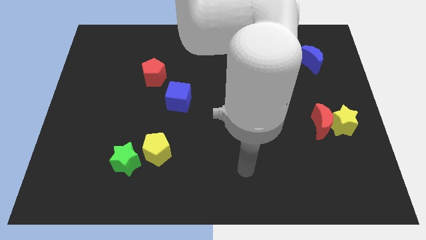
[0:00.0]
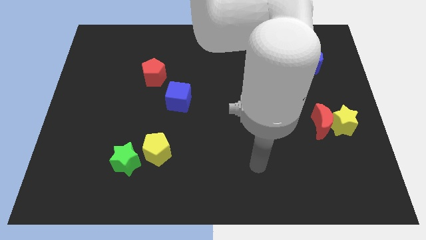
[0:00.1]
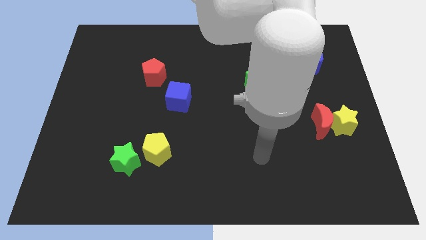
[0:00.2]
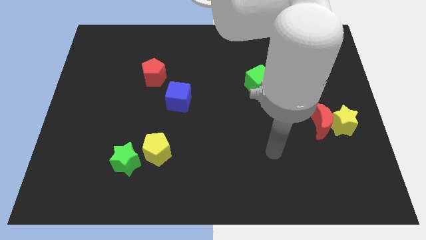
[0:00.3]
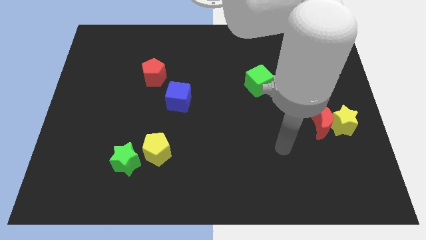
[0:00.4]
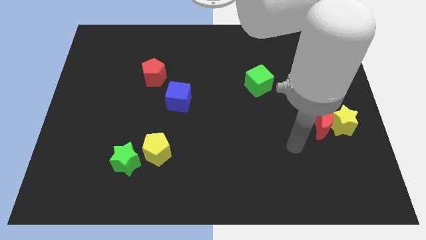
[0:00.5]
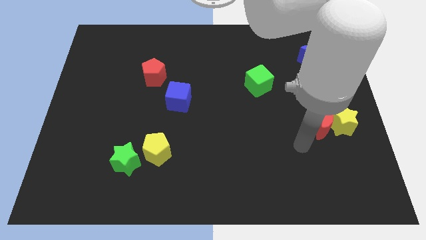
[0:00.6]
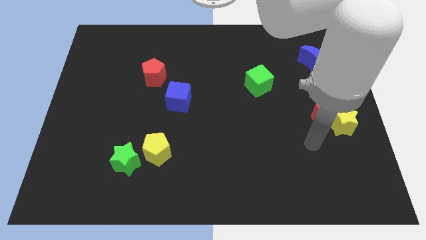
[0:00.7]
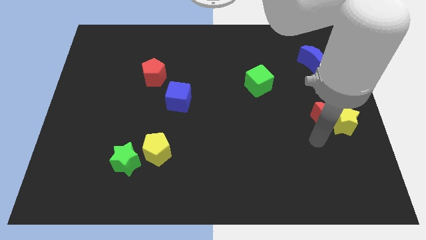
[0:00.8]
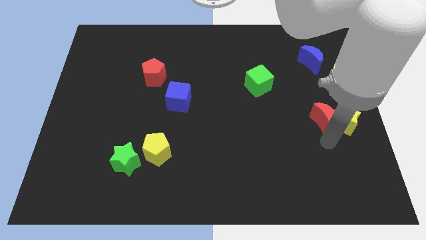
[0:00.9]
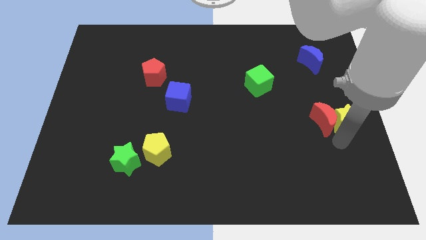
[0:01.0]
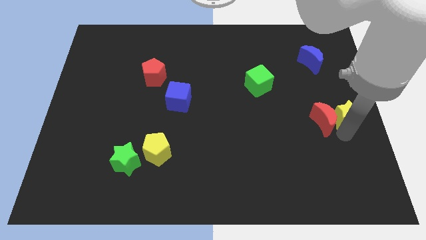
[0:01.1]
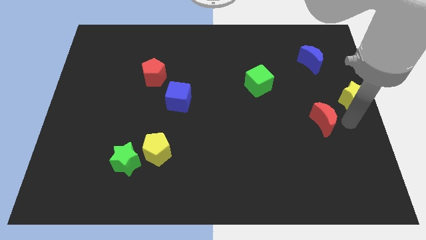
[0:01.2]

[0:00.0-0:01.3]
move the red moon away from the yellow star

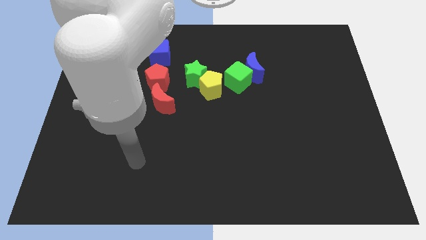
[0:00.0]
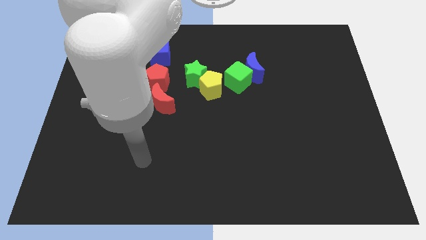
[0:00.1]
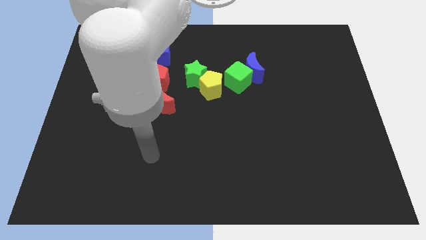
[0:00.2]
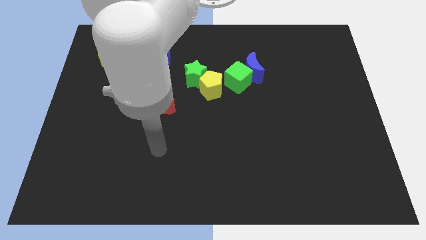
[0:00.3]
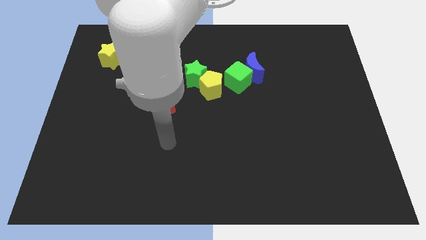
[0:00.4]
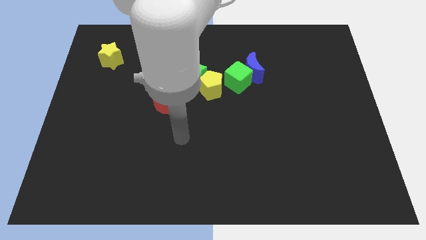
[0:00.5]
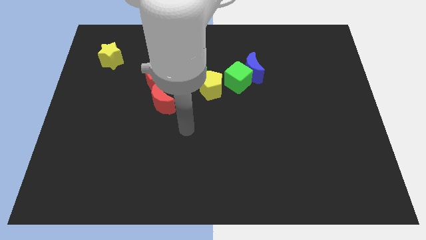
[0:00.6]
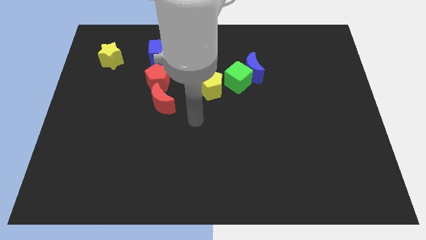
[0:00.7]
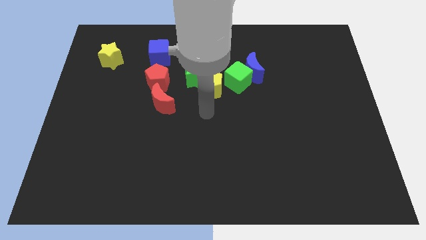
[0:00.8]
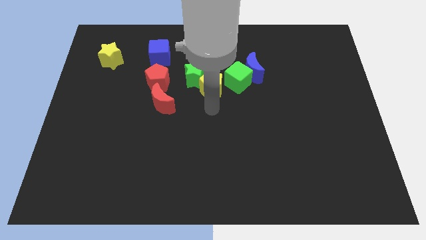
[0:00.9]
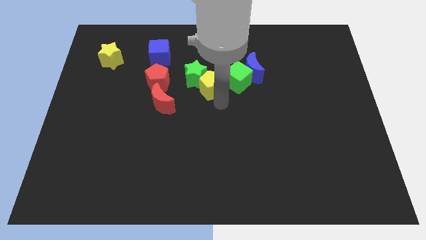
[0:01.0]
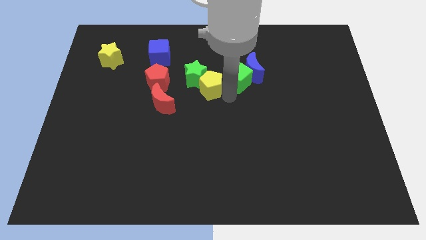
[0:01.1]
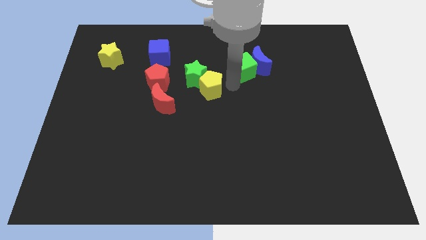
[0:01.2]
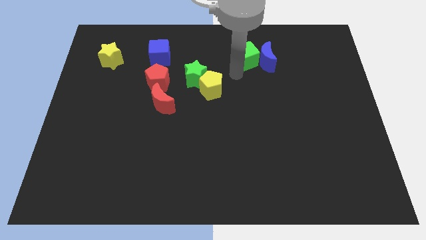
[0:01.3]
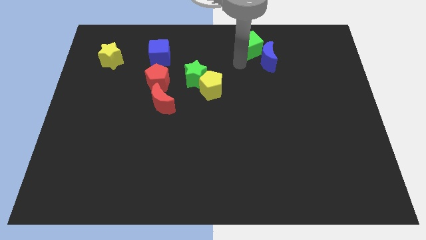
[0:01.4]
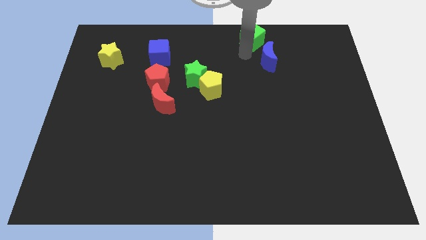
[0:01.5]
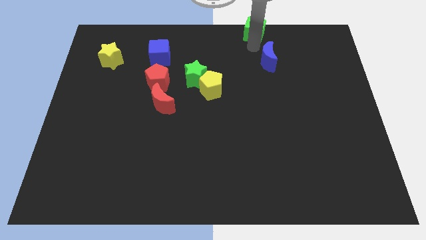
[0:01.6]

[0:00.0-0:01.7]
move the blue moon away from the green cube

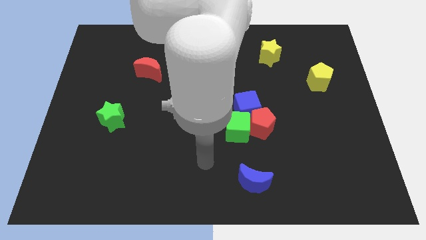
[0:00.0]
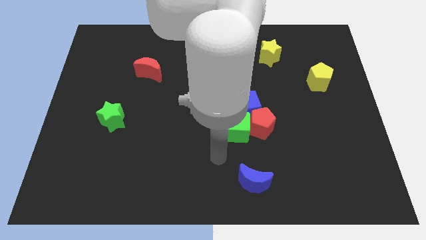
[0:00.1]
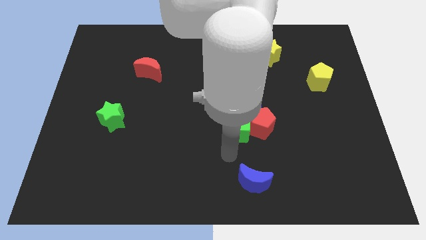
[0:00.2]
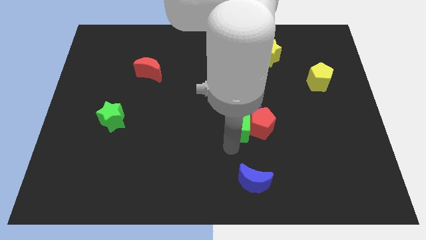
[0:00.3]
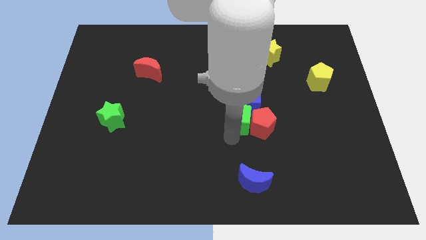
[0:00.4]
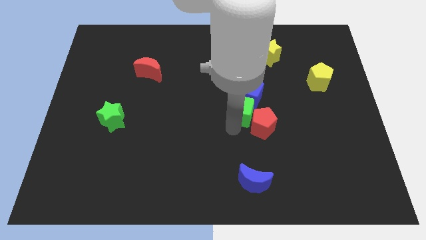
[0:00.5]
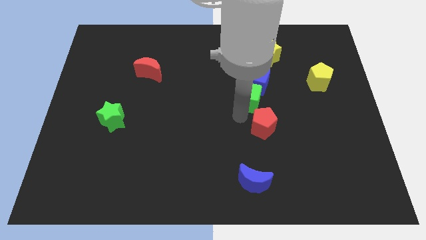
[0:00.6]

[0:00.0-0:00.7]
pull the red pentagon apart from the green cube and blue cube

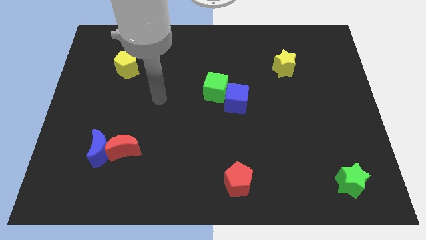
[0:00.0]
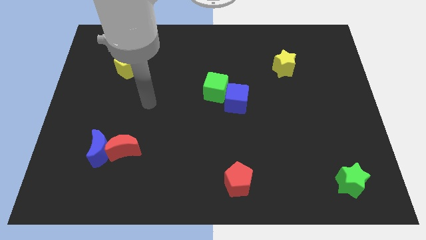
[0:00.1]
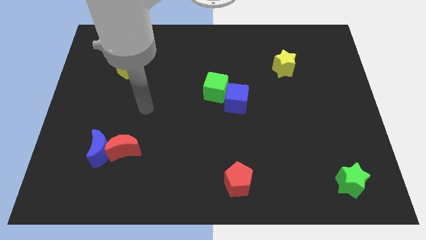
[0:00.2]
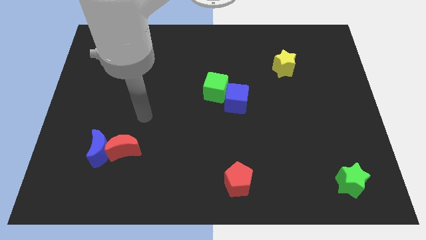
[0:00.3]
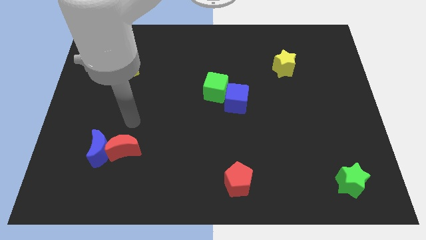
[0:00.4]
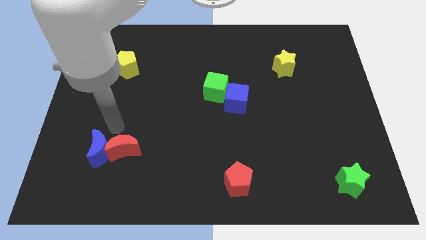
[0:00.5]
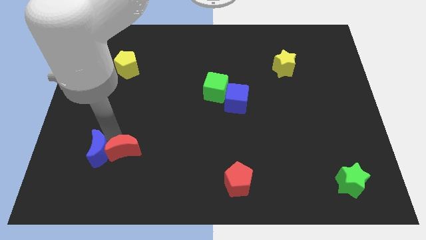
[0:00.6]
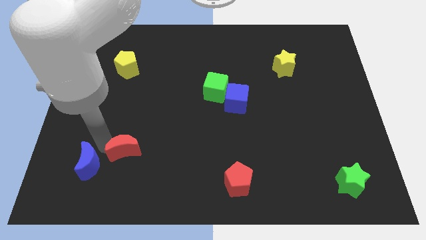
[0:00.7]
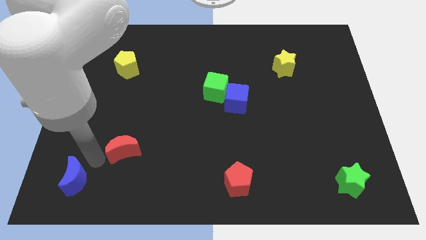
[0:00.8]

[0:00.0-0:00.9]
separate the red moon from the blue moon

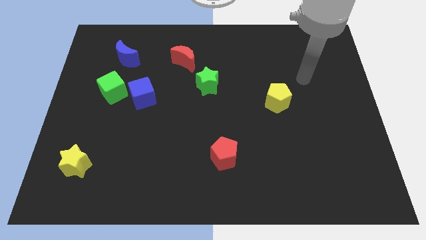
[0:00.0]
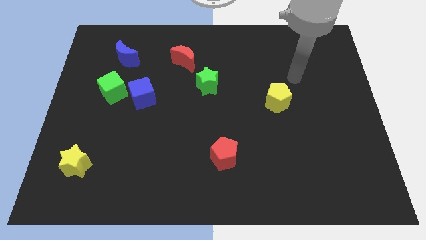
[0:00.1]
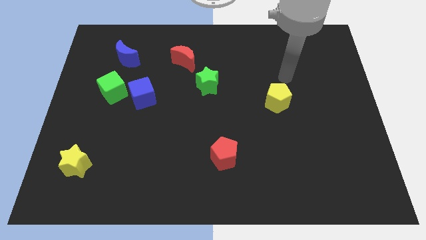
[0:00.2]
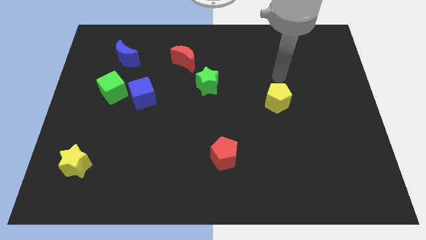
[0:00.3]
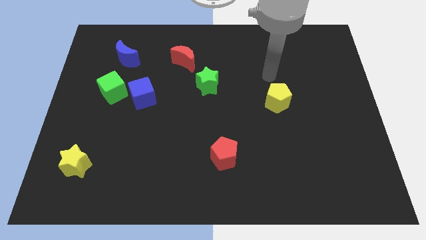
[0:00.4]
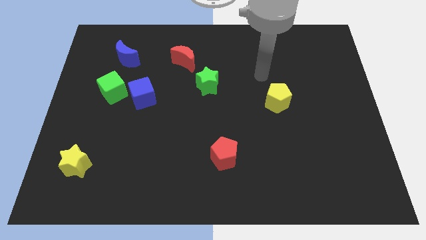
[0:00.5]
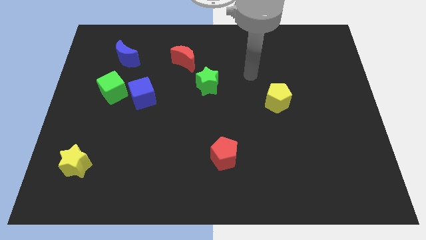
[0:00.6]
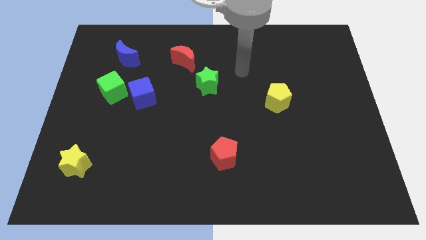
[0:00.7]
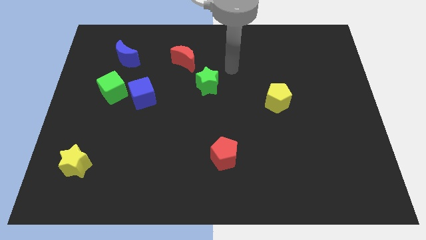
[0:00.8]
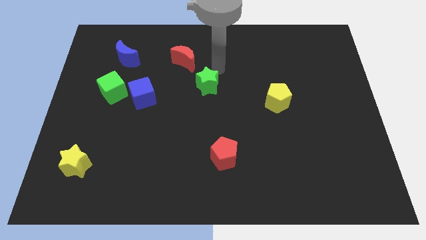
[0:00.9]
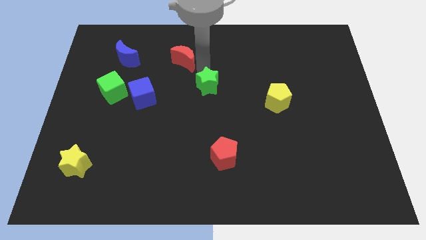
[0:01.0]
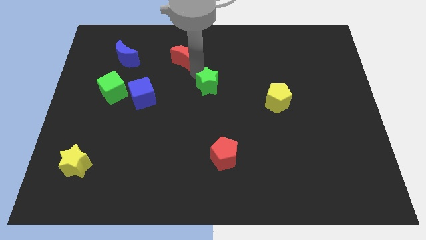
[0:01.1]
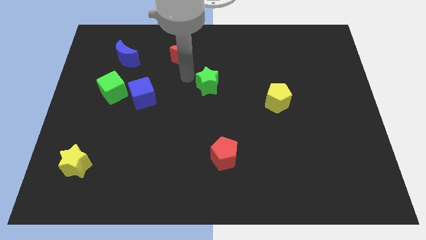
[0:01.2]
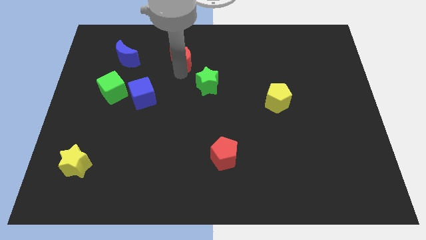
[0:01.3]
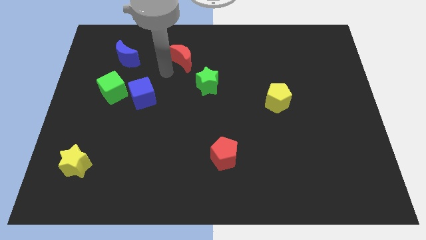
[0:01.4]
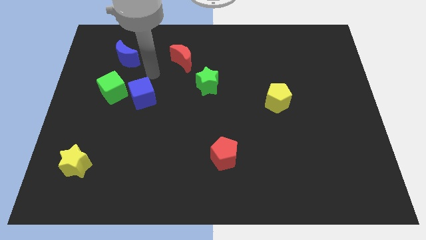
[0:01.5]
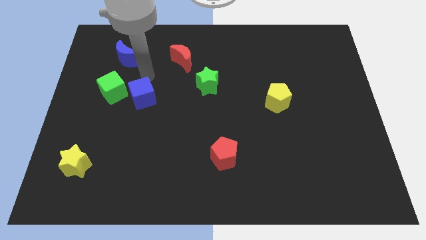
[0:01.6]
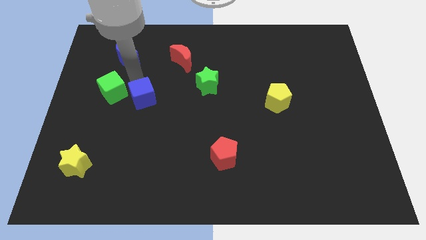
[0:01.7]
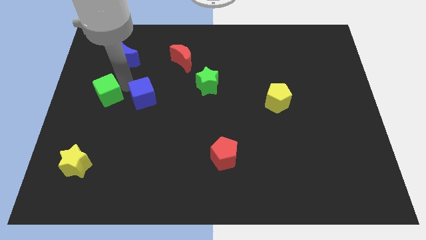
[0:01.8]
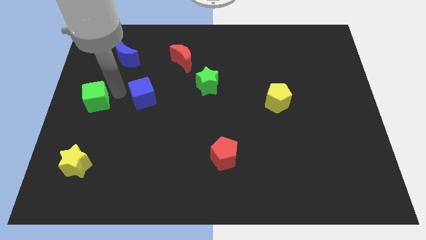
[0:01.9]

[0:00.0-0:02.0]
pull the blue cube apart from the green cube

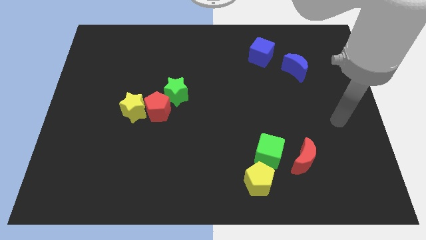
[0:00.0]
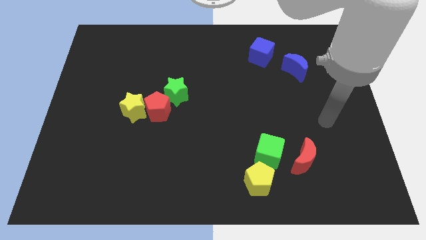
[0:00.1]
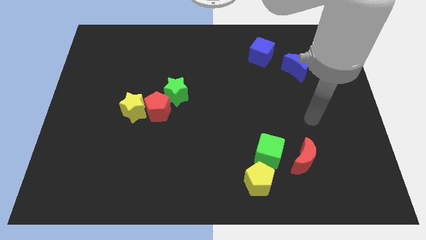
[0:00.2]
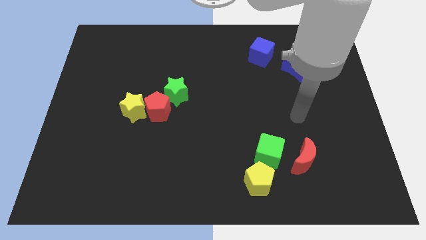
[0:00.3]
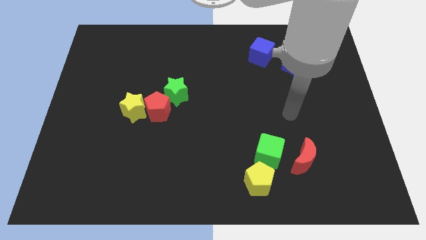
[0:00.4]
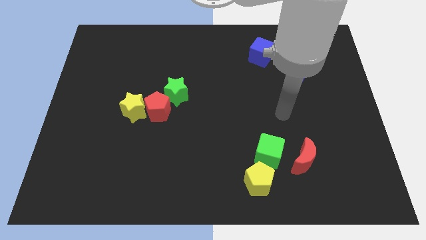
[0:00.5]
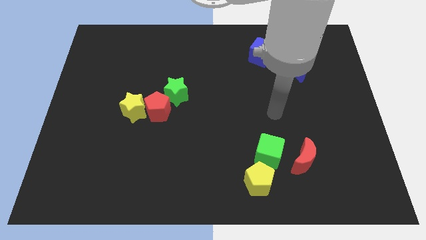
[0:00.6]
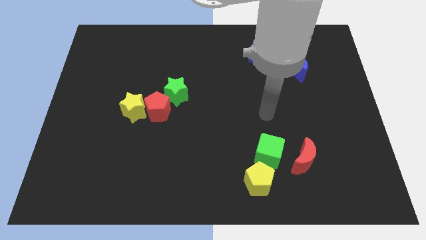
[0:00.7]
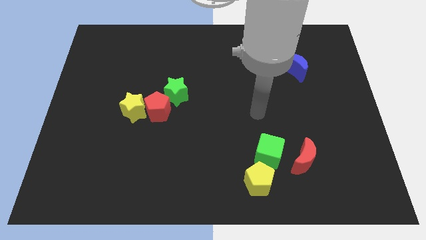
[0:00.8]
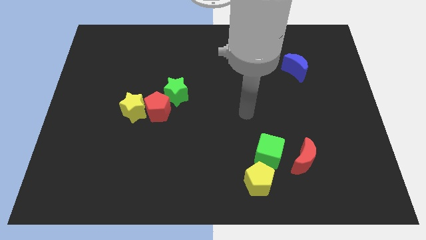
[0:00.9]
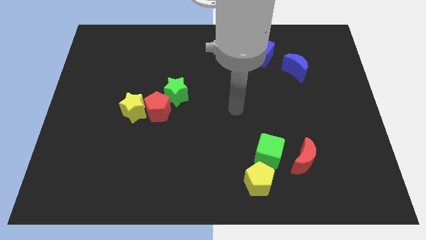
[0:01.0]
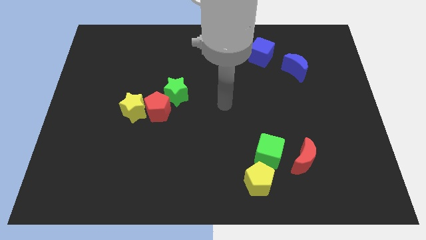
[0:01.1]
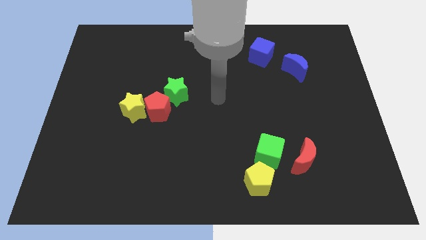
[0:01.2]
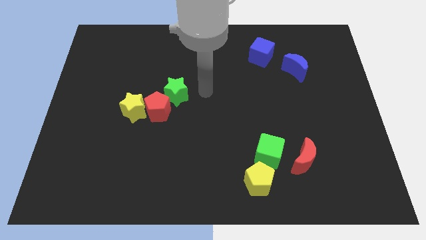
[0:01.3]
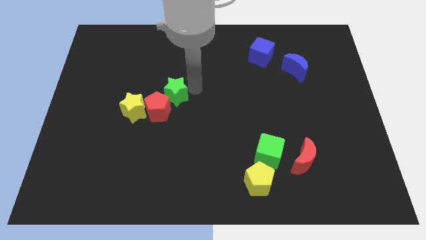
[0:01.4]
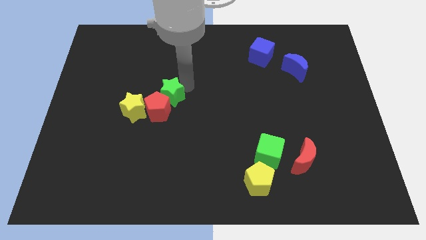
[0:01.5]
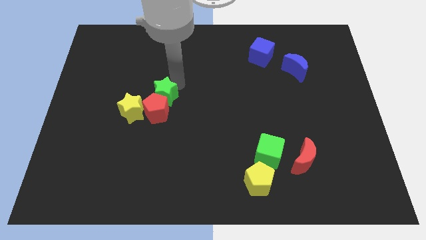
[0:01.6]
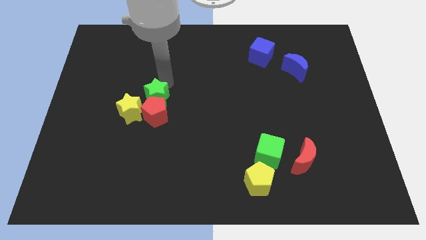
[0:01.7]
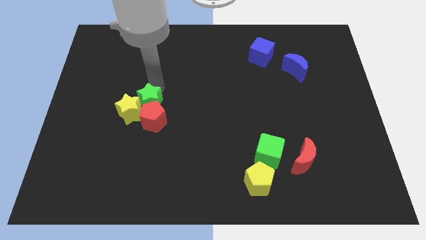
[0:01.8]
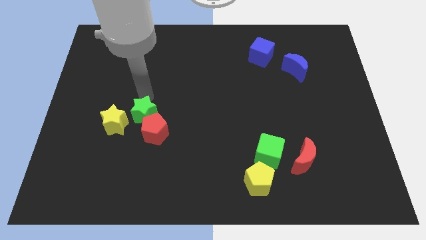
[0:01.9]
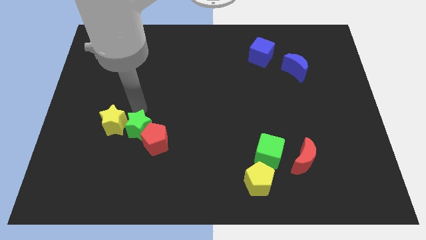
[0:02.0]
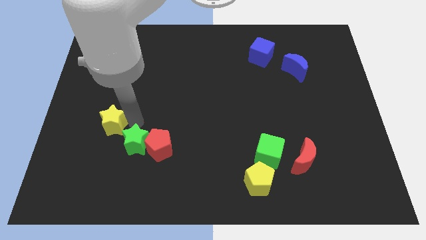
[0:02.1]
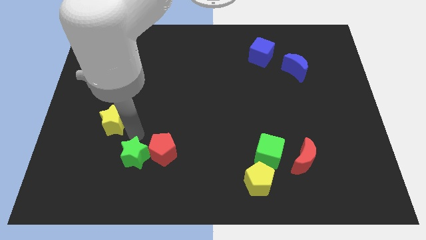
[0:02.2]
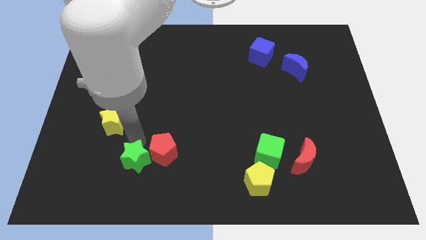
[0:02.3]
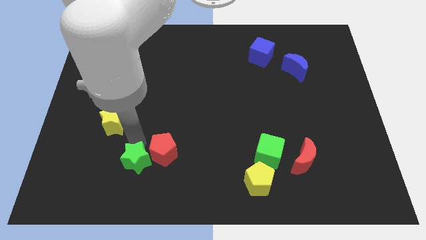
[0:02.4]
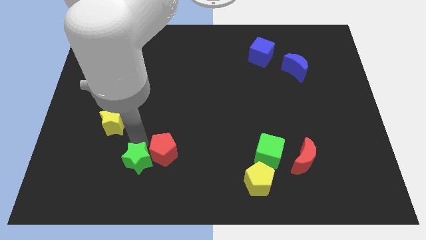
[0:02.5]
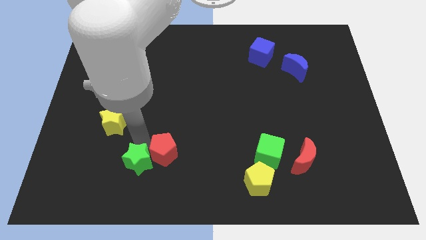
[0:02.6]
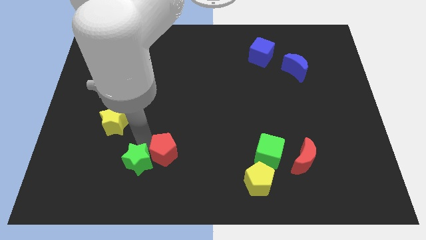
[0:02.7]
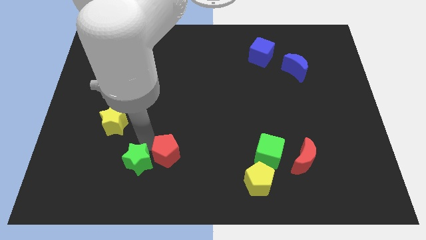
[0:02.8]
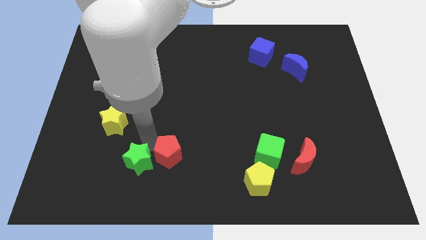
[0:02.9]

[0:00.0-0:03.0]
separate the red pentagon from the yellow star and green star
